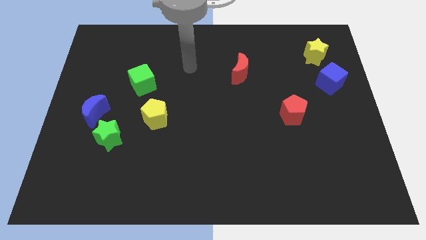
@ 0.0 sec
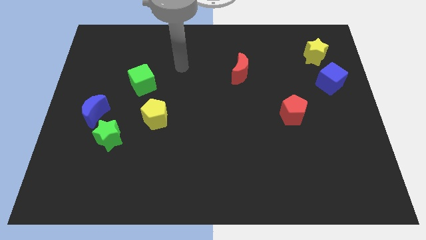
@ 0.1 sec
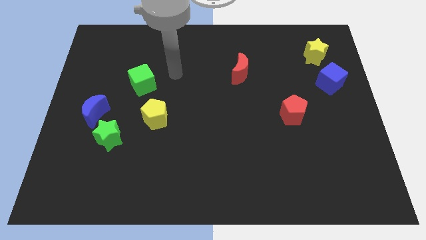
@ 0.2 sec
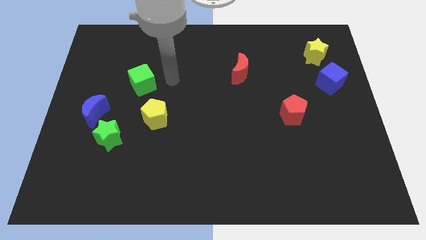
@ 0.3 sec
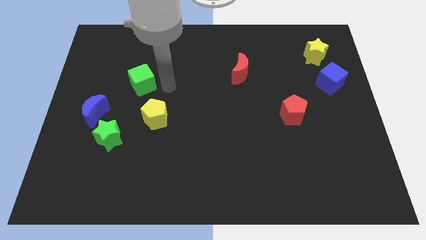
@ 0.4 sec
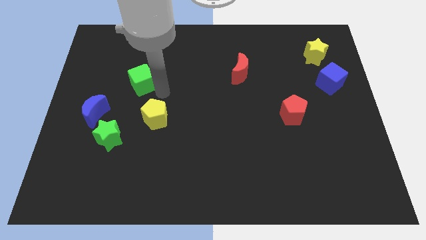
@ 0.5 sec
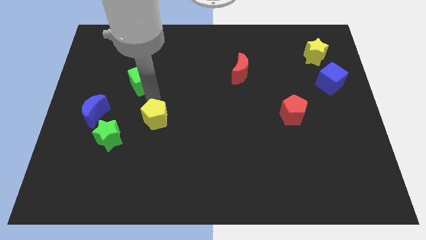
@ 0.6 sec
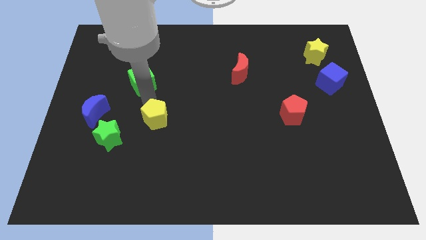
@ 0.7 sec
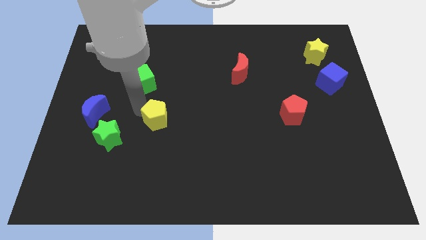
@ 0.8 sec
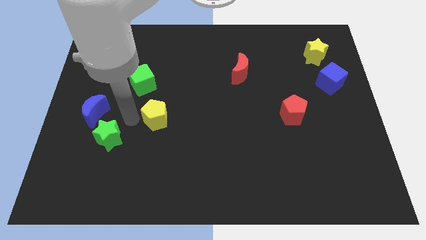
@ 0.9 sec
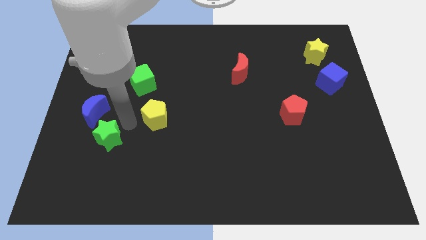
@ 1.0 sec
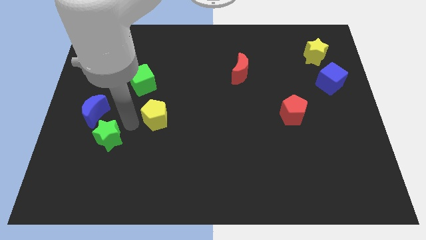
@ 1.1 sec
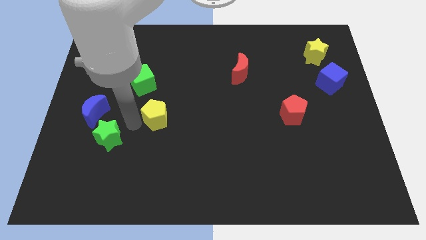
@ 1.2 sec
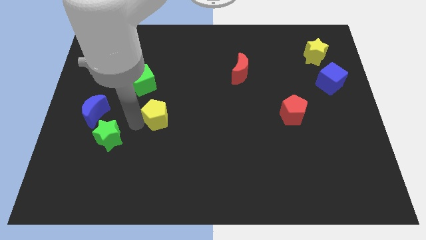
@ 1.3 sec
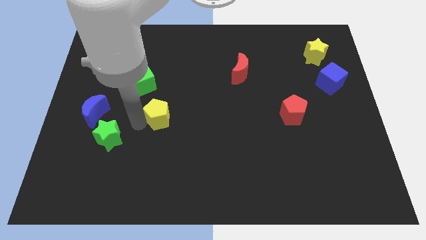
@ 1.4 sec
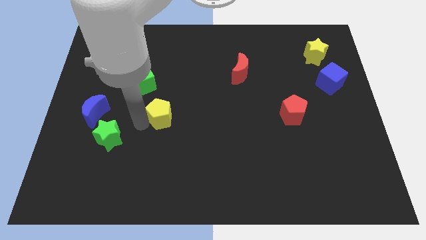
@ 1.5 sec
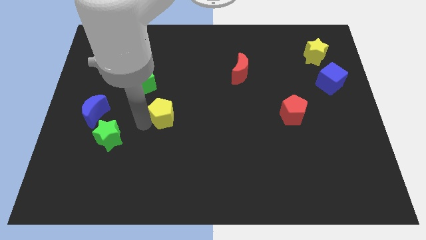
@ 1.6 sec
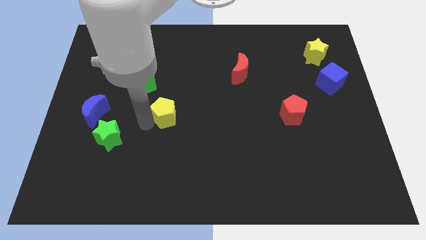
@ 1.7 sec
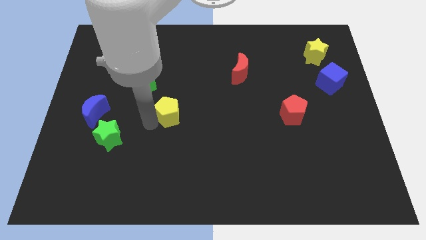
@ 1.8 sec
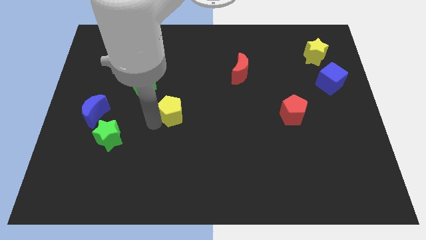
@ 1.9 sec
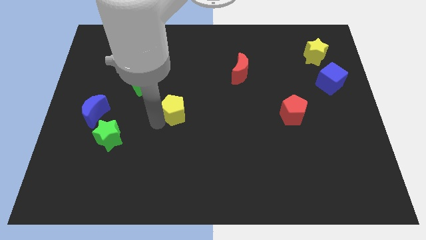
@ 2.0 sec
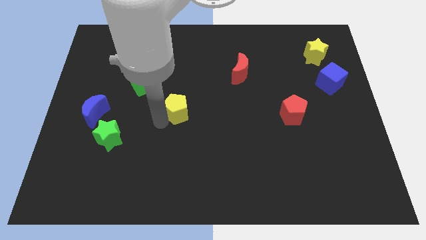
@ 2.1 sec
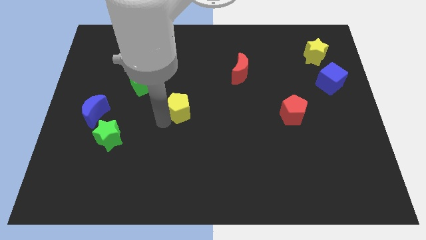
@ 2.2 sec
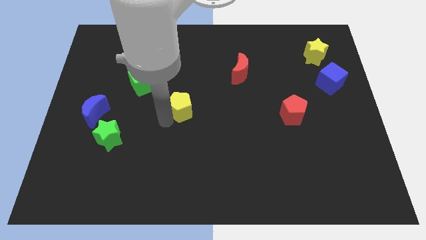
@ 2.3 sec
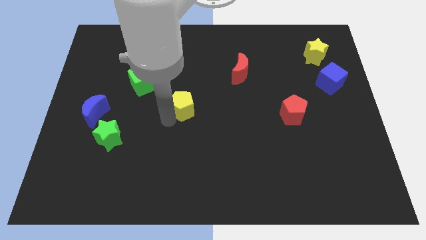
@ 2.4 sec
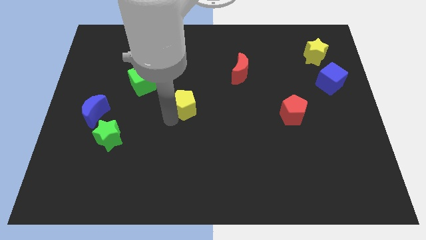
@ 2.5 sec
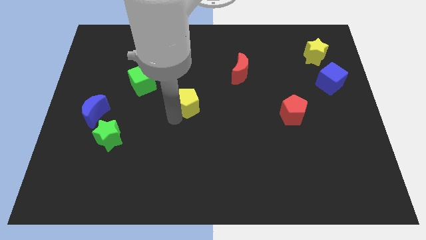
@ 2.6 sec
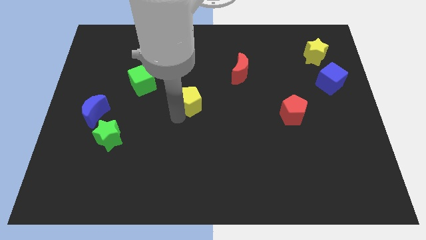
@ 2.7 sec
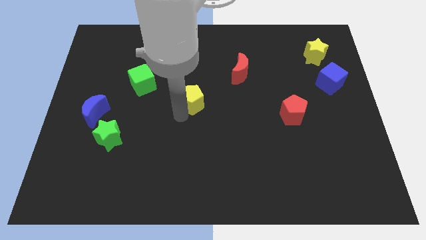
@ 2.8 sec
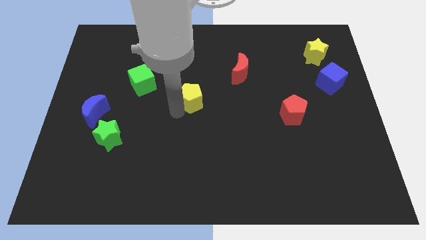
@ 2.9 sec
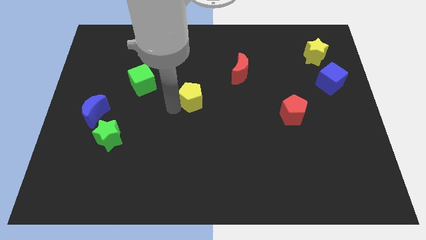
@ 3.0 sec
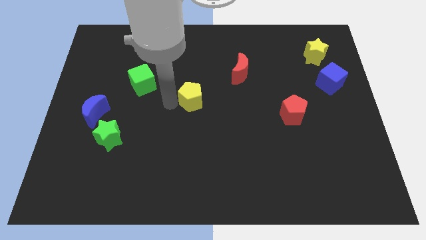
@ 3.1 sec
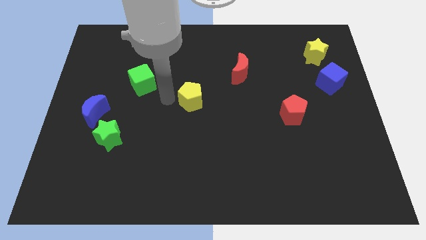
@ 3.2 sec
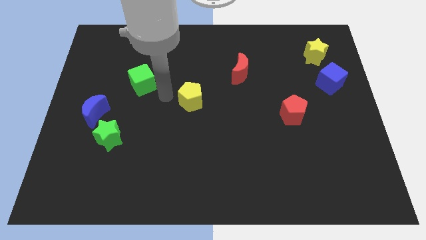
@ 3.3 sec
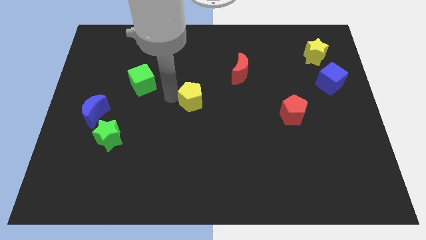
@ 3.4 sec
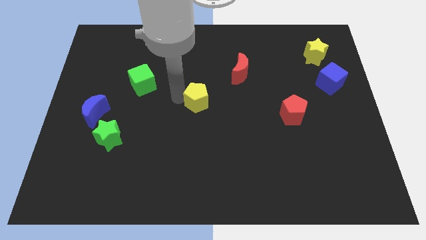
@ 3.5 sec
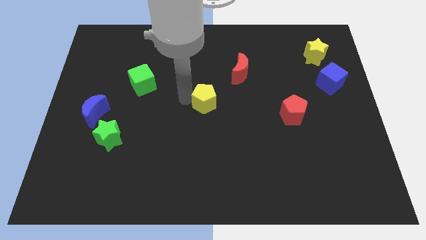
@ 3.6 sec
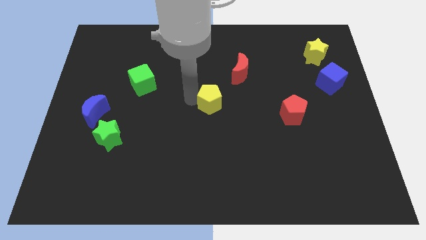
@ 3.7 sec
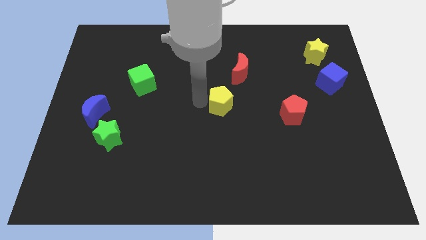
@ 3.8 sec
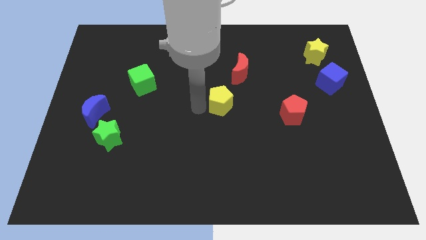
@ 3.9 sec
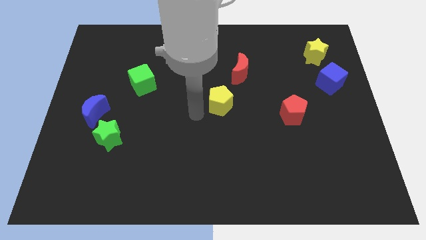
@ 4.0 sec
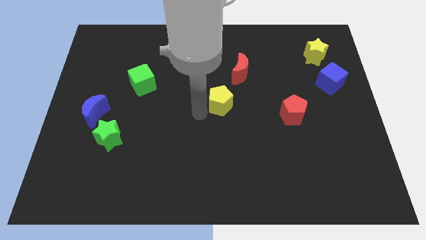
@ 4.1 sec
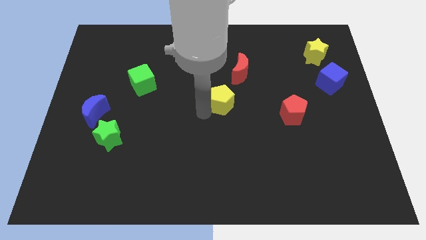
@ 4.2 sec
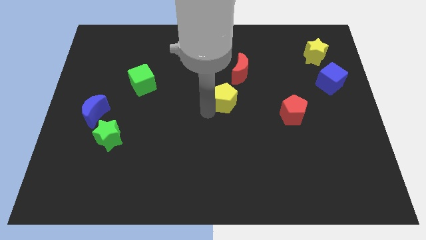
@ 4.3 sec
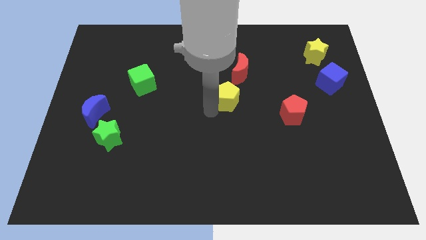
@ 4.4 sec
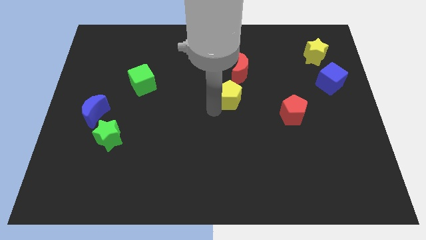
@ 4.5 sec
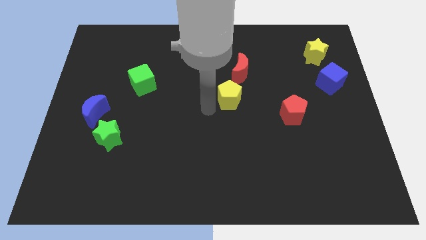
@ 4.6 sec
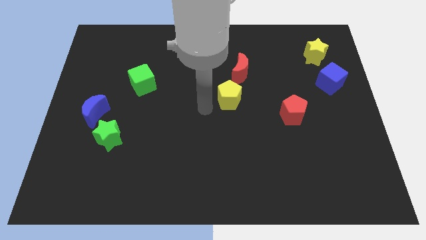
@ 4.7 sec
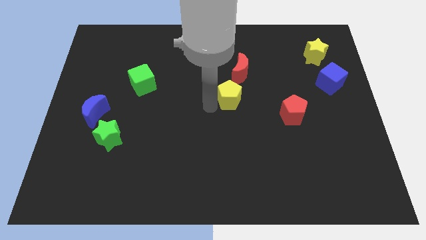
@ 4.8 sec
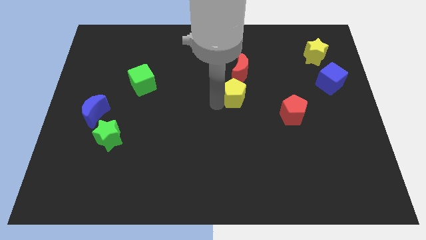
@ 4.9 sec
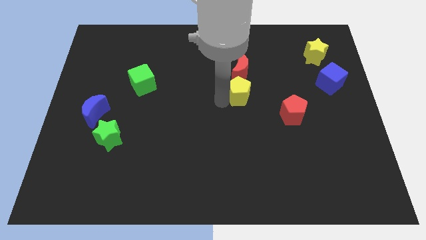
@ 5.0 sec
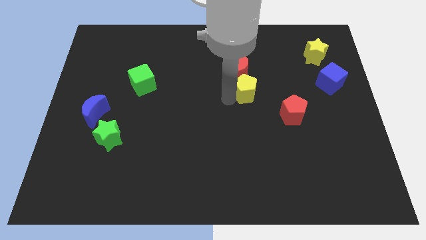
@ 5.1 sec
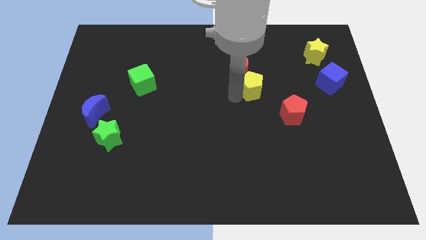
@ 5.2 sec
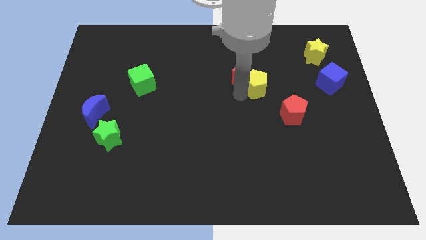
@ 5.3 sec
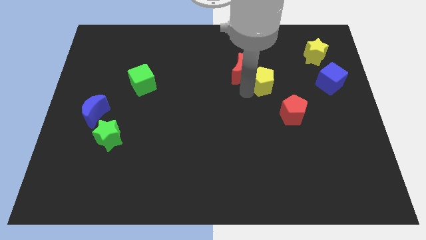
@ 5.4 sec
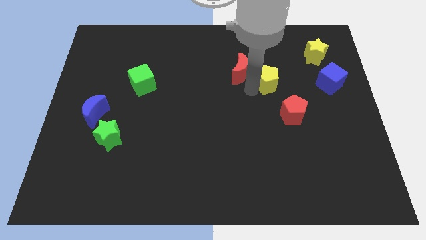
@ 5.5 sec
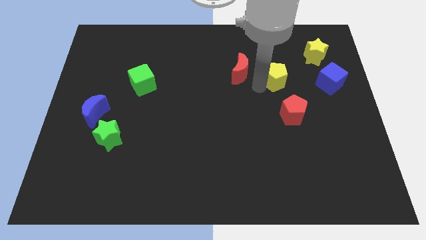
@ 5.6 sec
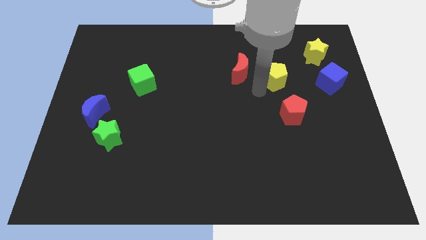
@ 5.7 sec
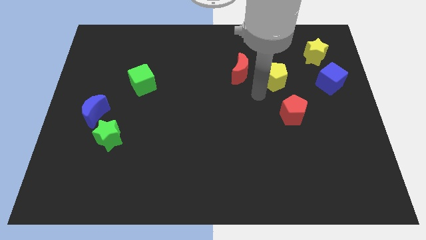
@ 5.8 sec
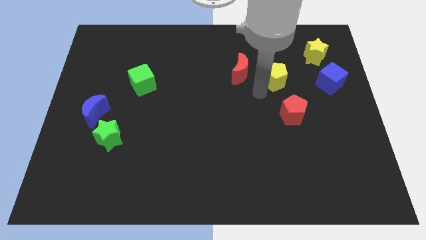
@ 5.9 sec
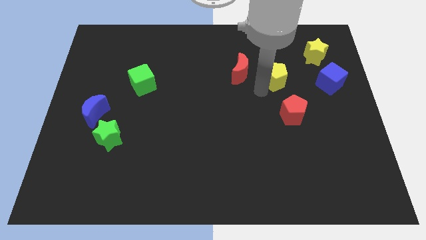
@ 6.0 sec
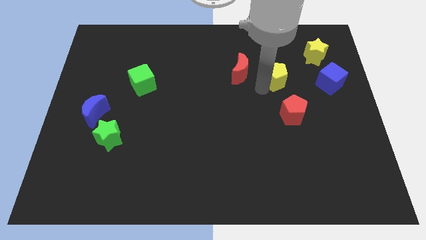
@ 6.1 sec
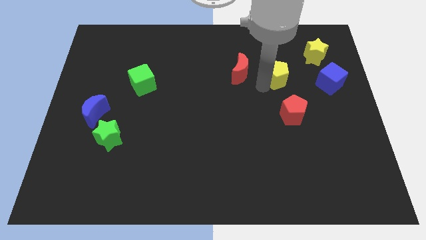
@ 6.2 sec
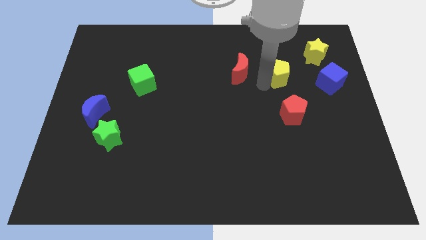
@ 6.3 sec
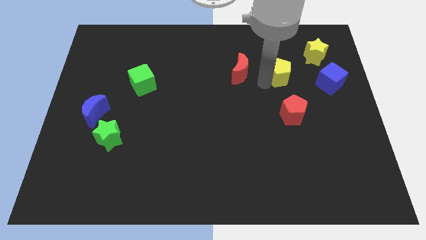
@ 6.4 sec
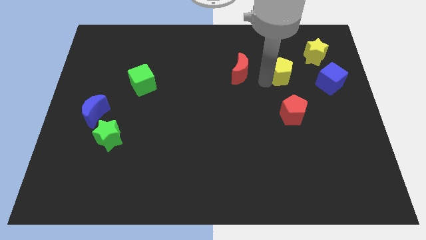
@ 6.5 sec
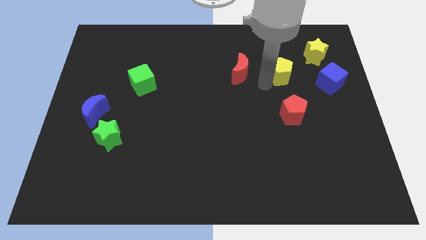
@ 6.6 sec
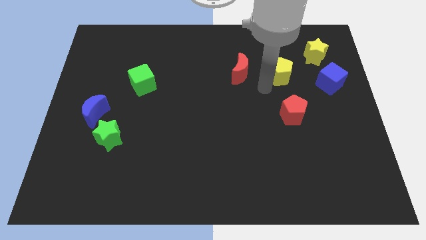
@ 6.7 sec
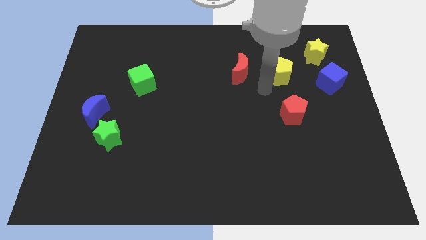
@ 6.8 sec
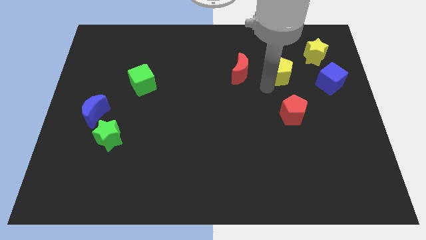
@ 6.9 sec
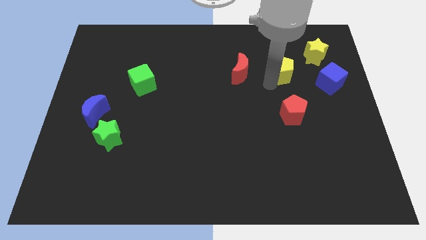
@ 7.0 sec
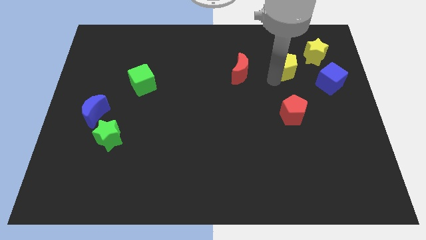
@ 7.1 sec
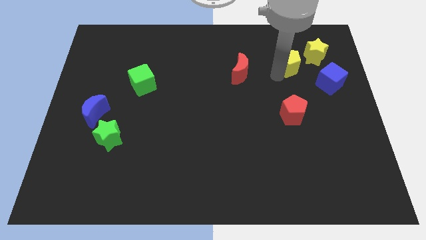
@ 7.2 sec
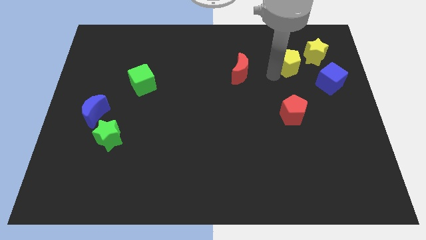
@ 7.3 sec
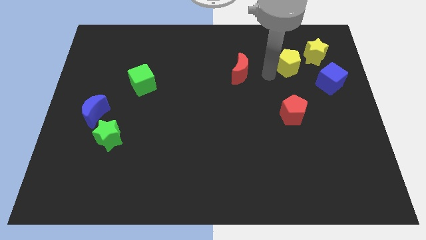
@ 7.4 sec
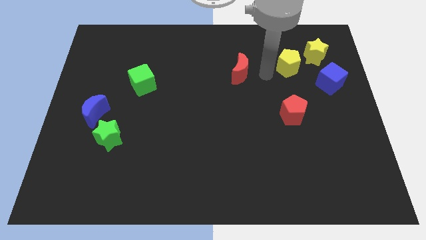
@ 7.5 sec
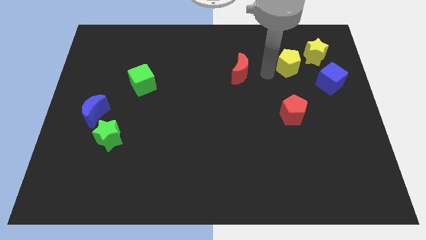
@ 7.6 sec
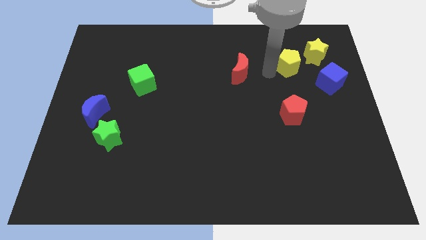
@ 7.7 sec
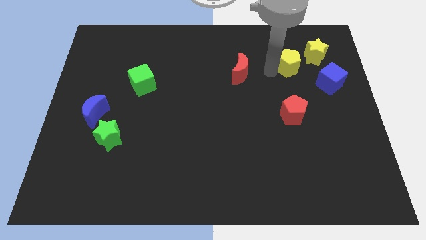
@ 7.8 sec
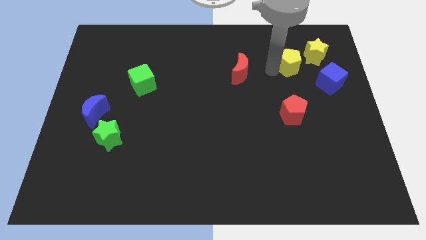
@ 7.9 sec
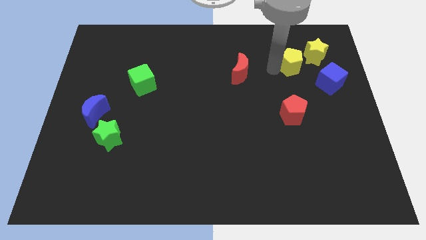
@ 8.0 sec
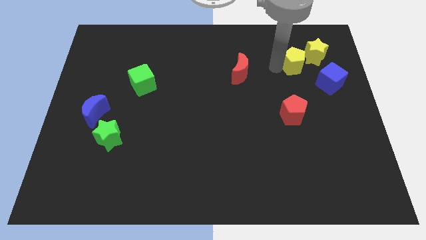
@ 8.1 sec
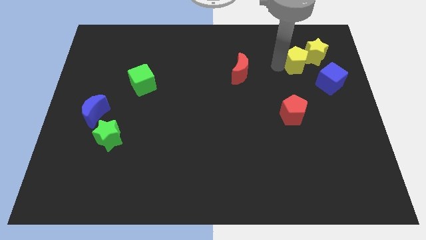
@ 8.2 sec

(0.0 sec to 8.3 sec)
slide the yellow pentagon to the yellow star
